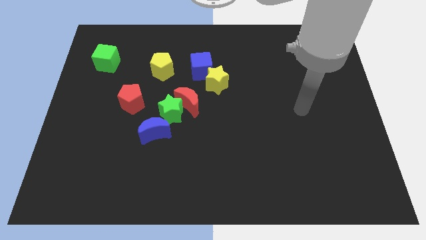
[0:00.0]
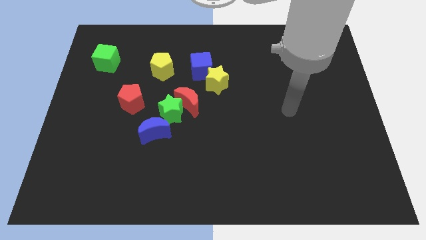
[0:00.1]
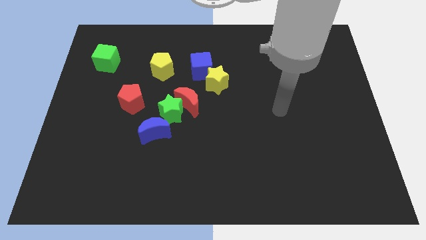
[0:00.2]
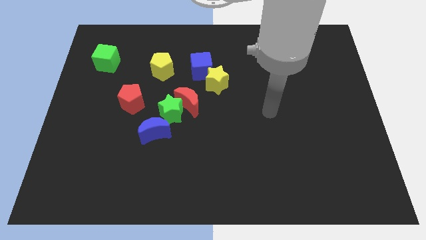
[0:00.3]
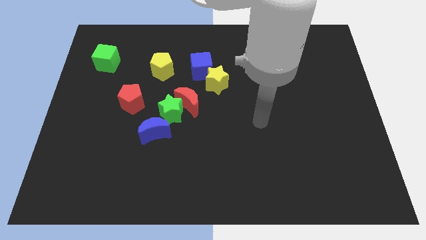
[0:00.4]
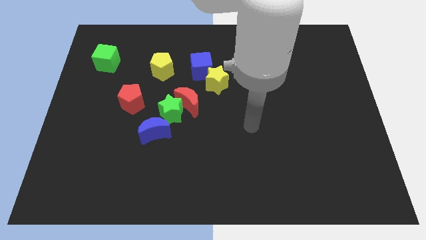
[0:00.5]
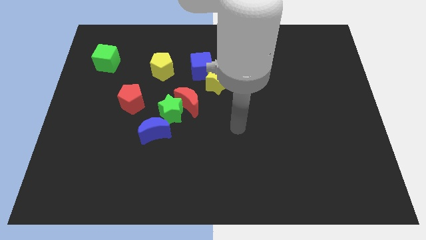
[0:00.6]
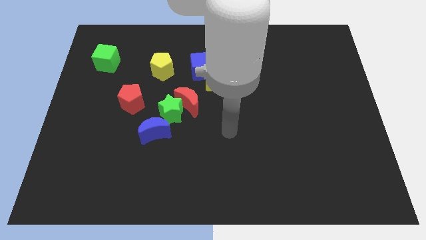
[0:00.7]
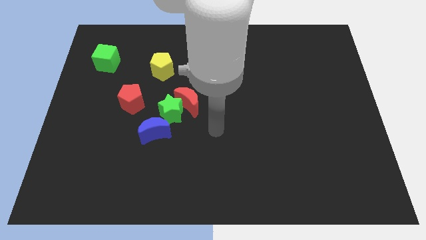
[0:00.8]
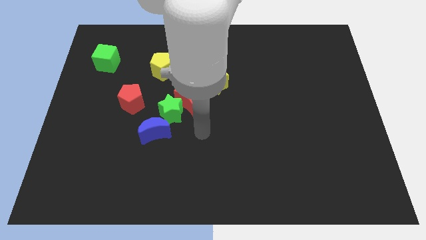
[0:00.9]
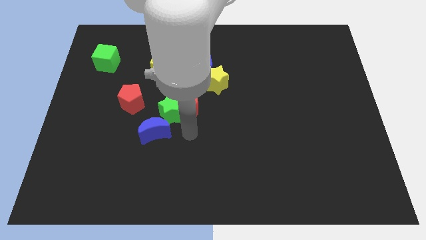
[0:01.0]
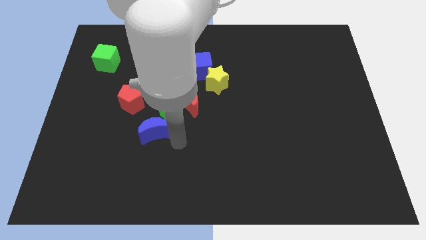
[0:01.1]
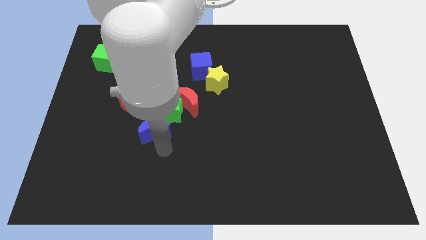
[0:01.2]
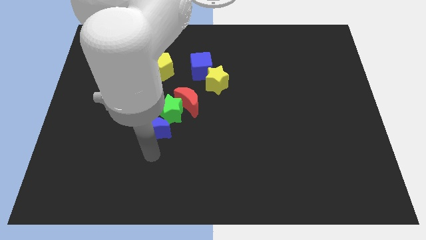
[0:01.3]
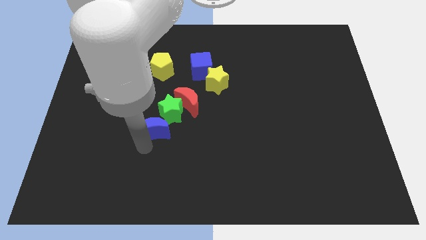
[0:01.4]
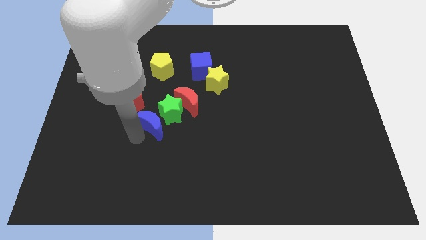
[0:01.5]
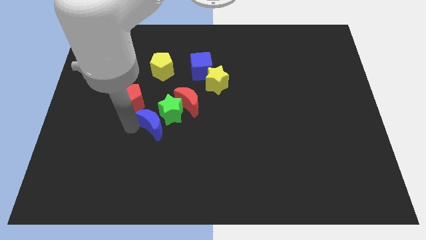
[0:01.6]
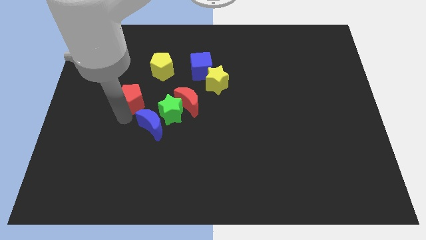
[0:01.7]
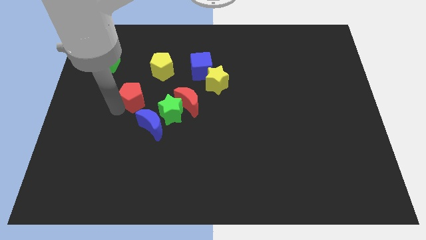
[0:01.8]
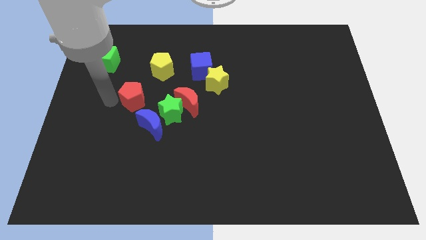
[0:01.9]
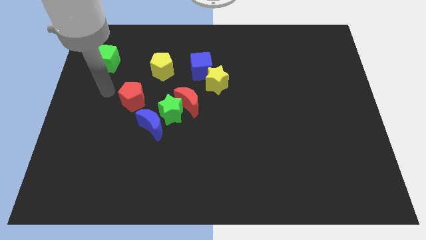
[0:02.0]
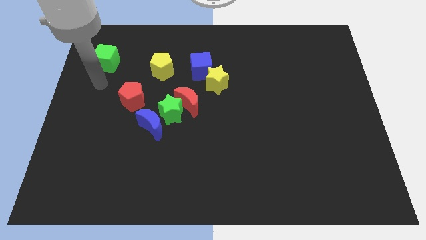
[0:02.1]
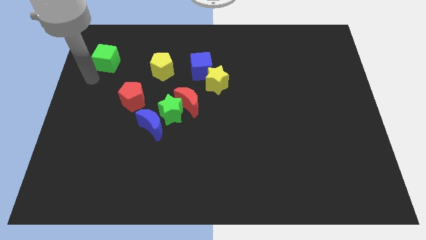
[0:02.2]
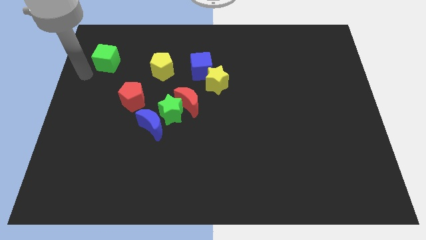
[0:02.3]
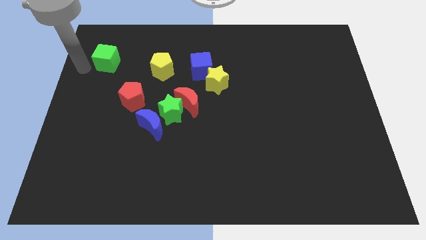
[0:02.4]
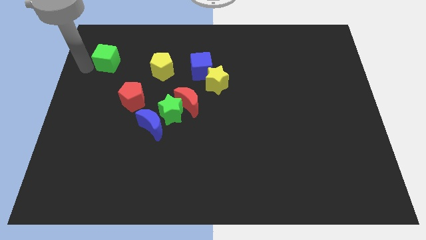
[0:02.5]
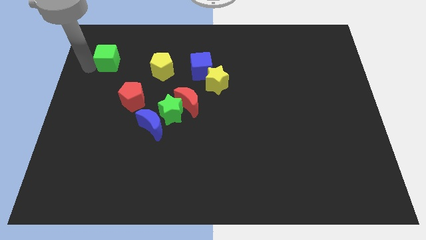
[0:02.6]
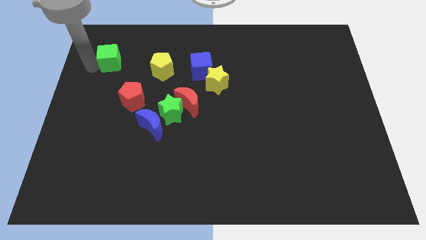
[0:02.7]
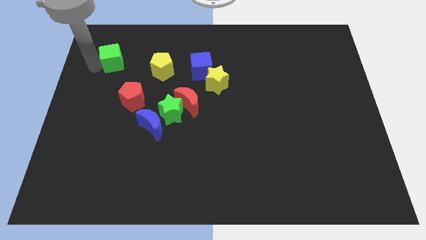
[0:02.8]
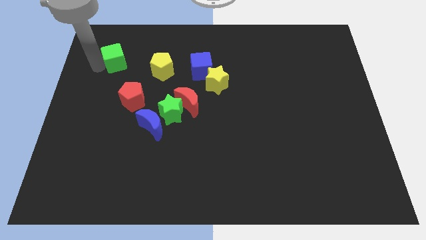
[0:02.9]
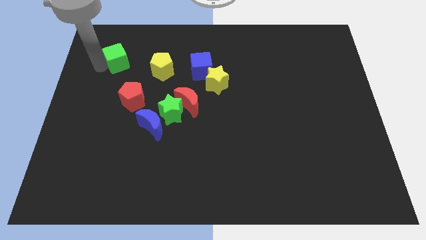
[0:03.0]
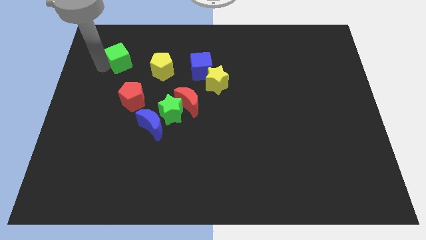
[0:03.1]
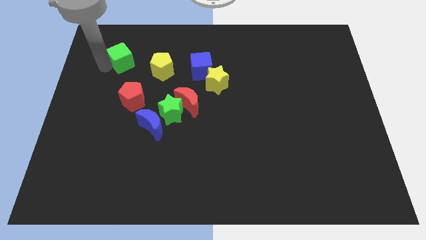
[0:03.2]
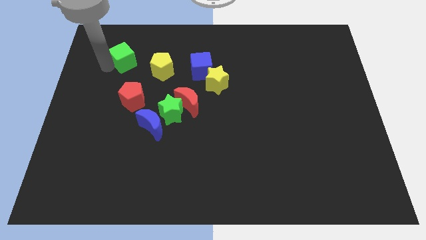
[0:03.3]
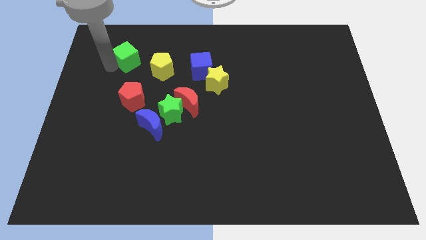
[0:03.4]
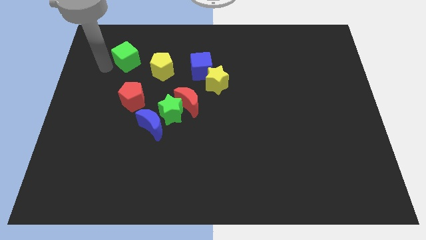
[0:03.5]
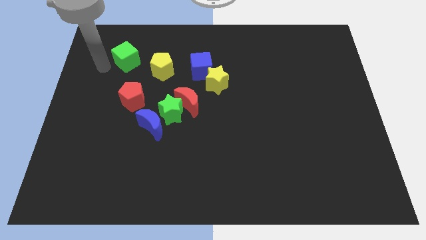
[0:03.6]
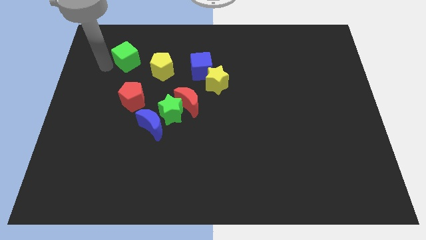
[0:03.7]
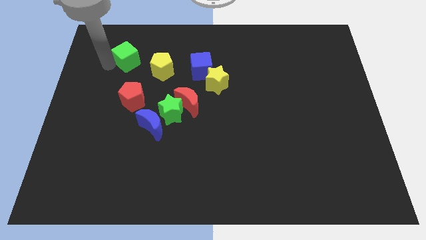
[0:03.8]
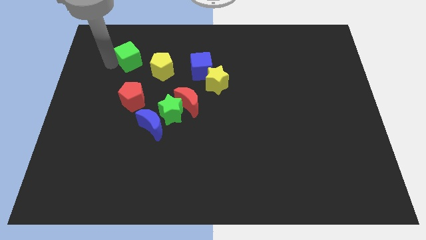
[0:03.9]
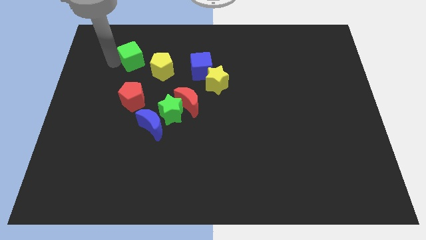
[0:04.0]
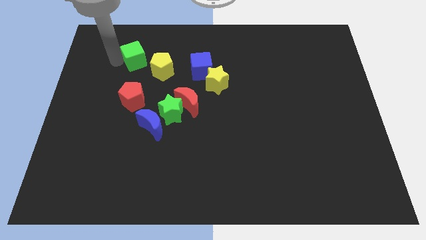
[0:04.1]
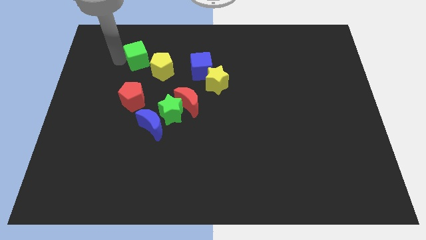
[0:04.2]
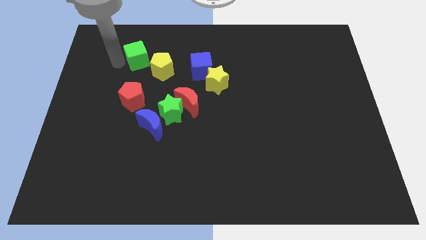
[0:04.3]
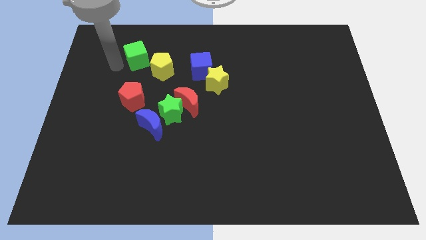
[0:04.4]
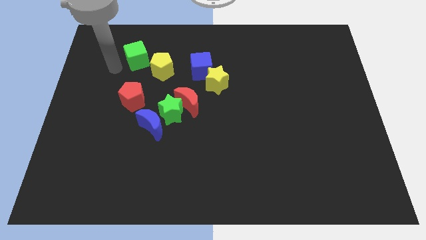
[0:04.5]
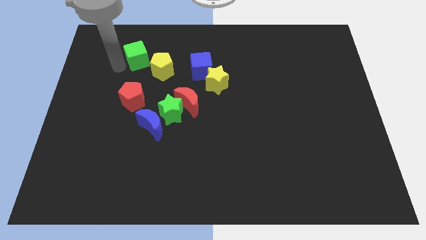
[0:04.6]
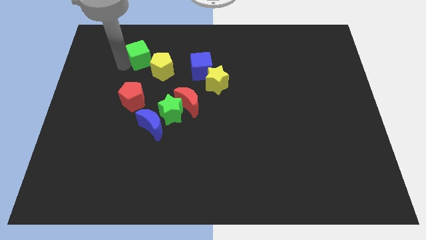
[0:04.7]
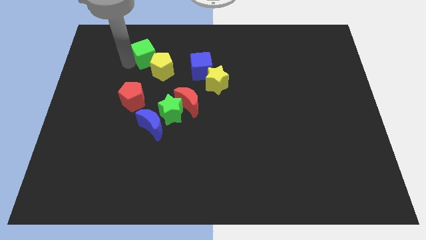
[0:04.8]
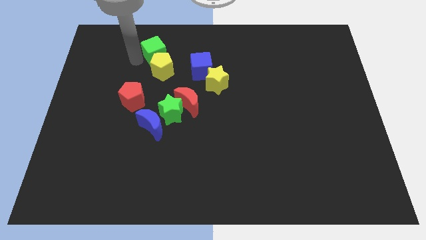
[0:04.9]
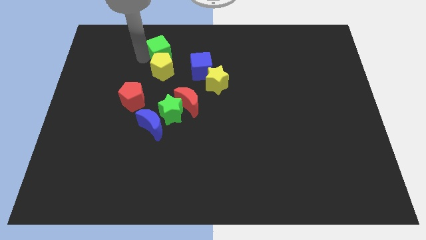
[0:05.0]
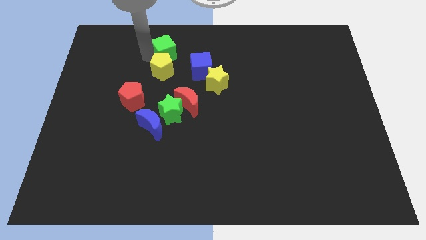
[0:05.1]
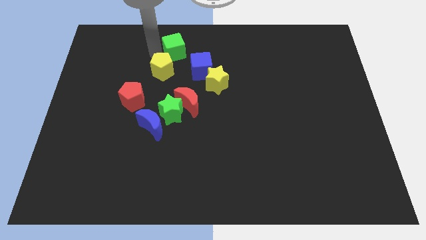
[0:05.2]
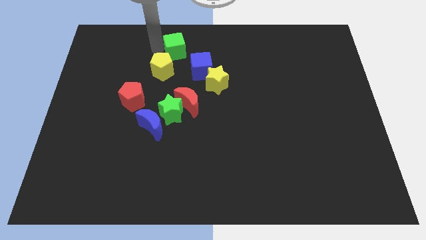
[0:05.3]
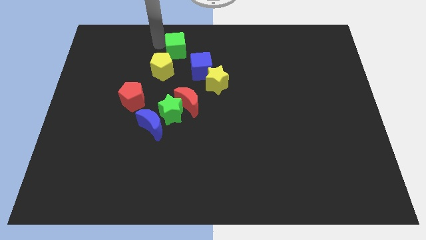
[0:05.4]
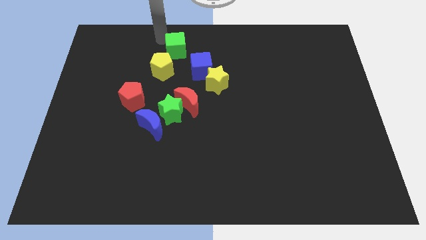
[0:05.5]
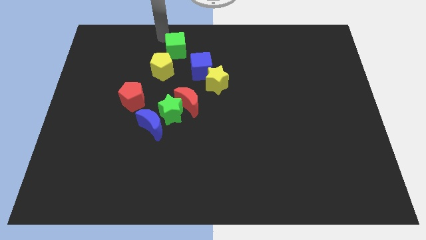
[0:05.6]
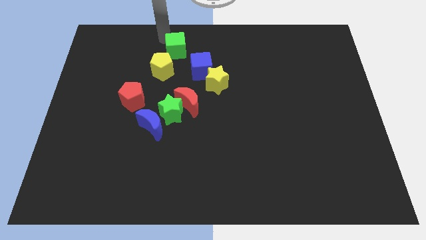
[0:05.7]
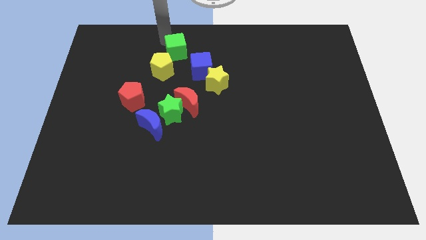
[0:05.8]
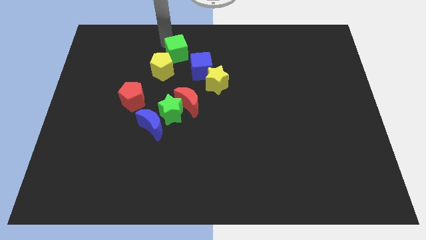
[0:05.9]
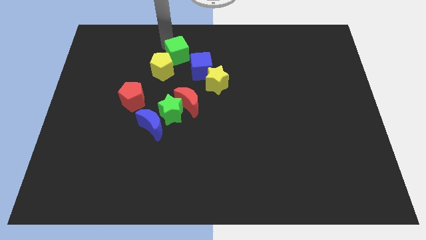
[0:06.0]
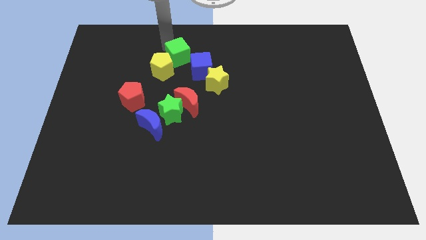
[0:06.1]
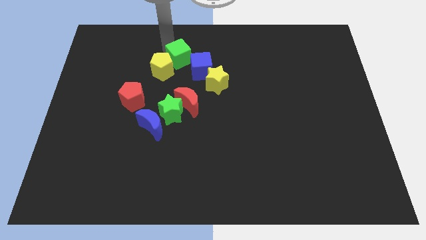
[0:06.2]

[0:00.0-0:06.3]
push the green cube to the top left side of the yellow star

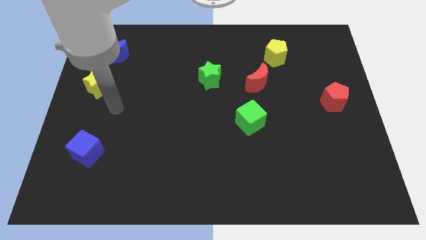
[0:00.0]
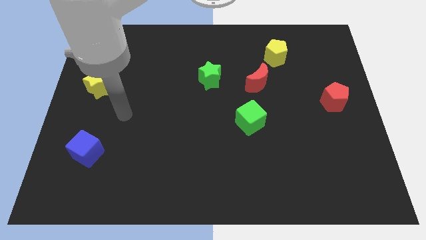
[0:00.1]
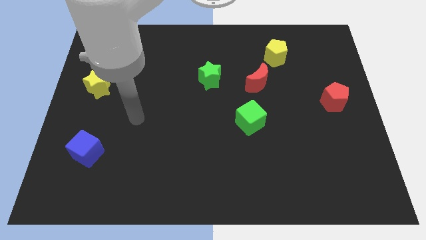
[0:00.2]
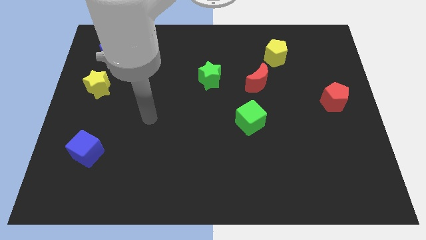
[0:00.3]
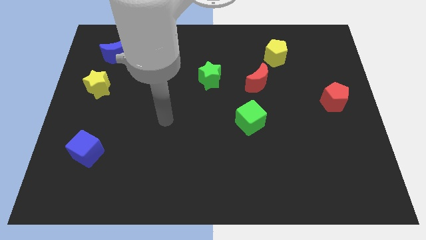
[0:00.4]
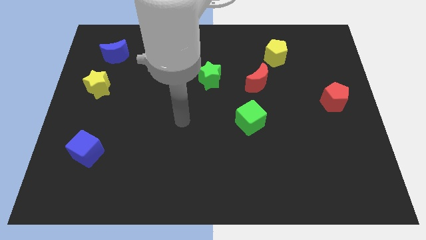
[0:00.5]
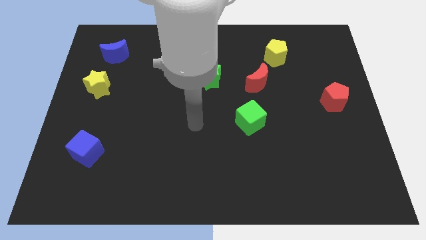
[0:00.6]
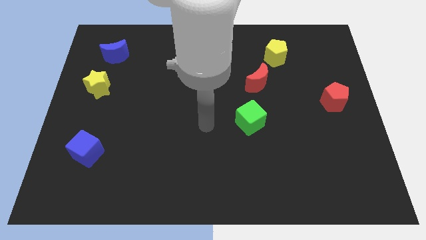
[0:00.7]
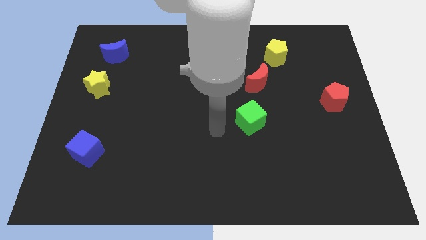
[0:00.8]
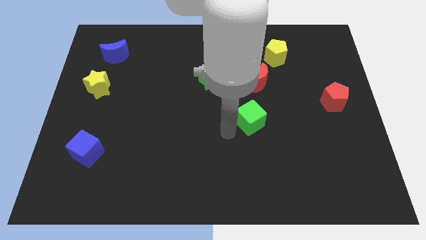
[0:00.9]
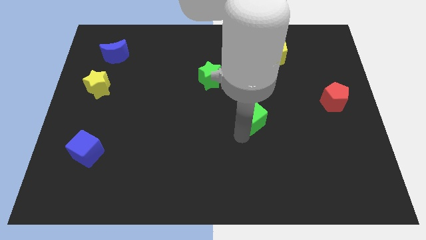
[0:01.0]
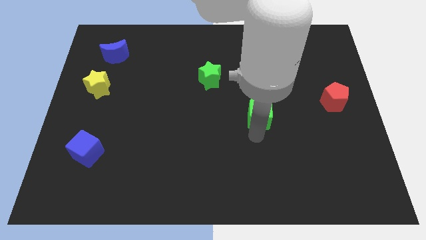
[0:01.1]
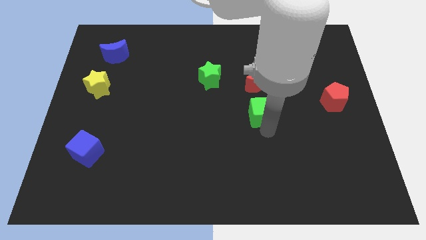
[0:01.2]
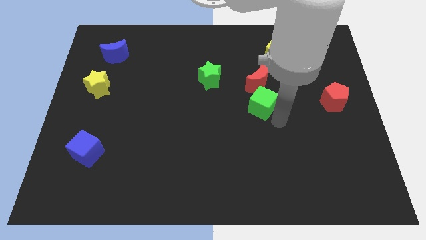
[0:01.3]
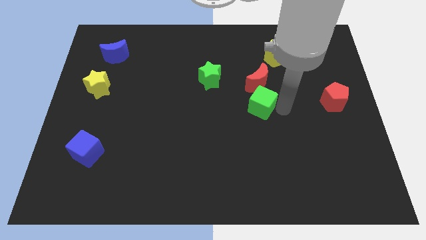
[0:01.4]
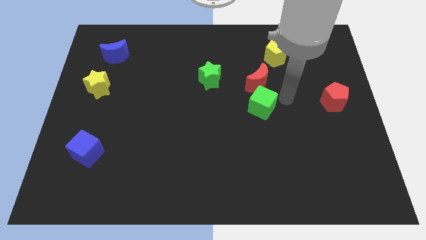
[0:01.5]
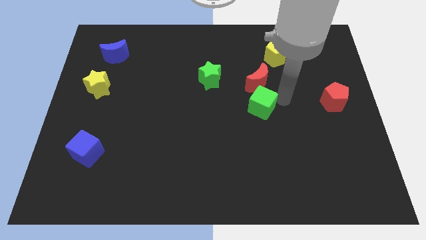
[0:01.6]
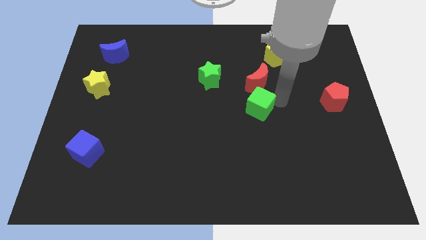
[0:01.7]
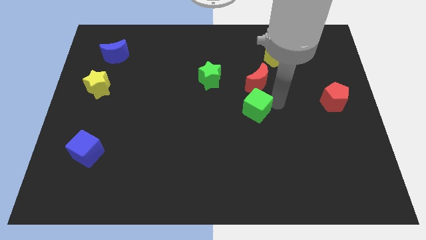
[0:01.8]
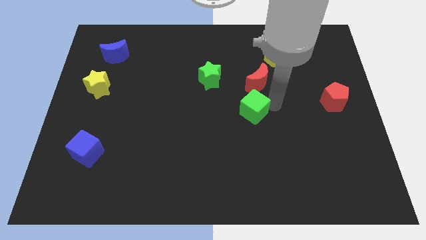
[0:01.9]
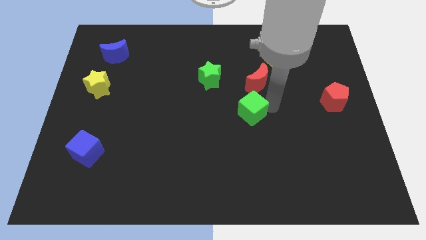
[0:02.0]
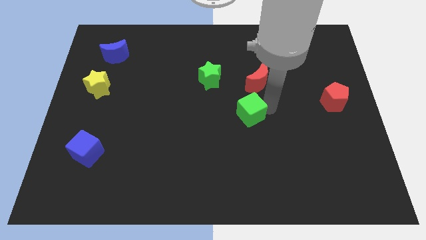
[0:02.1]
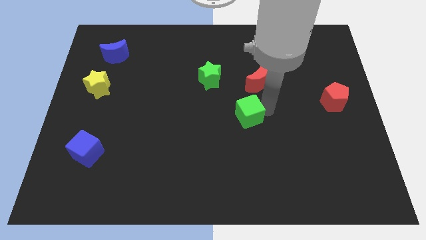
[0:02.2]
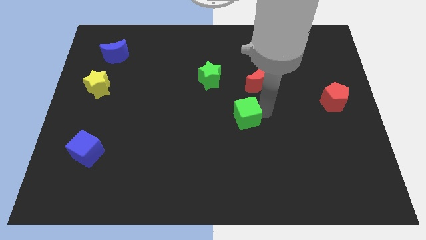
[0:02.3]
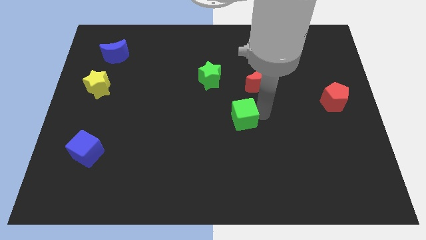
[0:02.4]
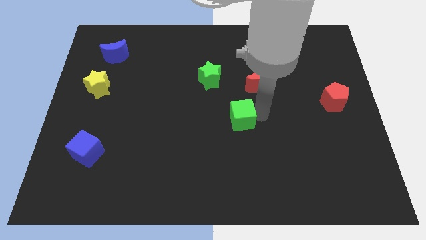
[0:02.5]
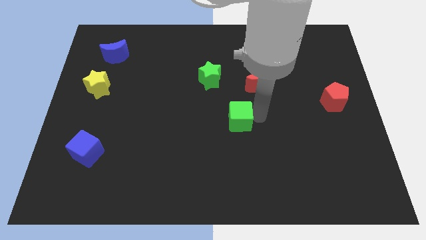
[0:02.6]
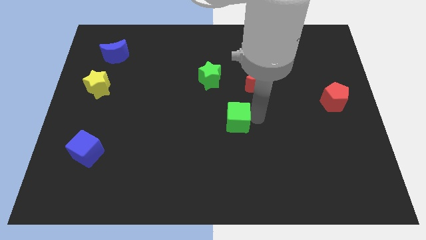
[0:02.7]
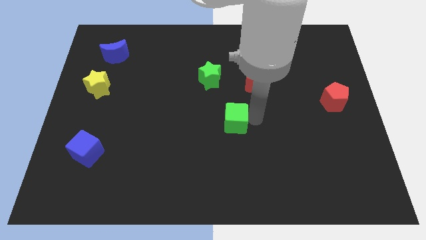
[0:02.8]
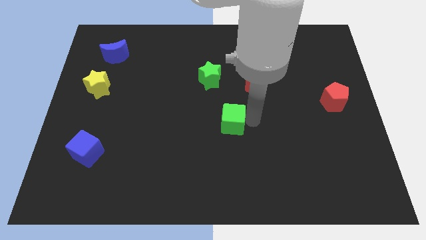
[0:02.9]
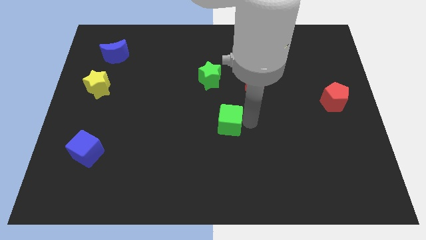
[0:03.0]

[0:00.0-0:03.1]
slide the green cube to the bottom side of the green star
